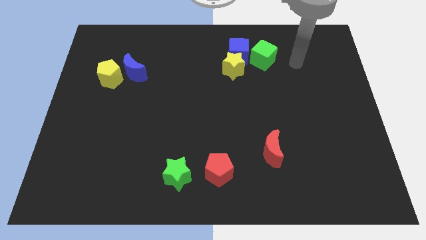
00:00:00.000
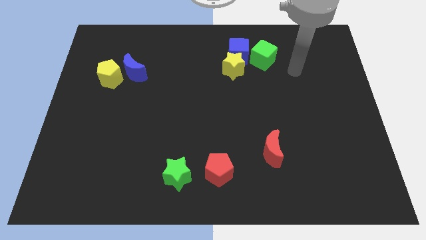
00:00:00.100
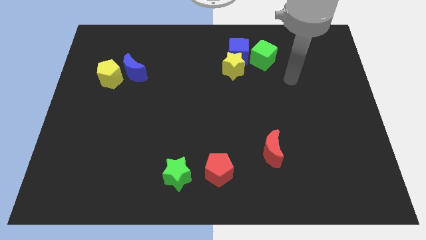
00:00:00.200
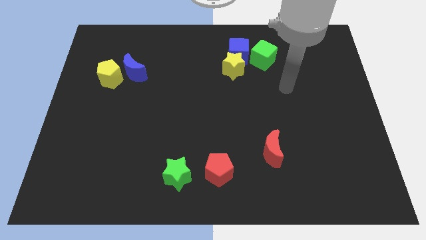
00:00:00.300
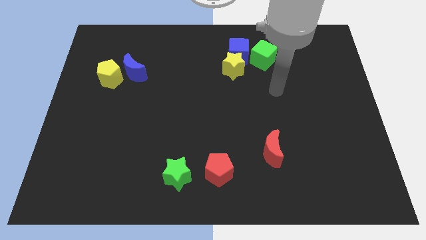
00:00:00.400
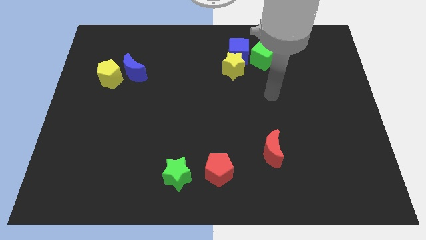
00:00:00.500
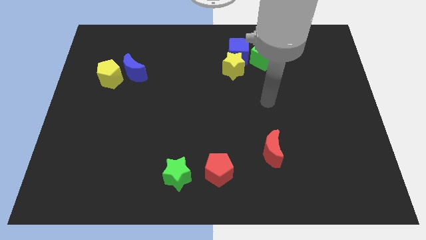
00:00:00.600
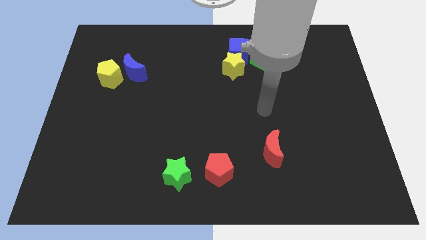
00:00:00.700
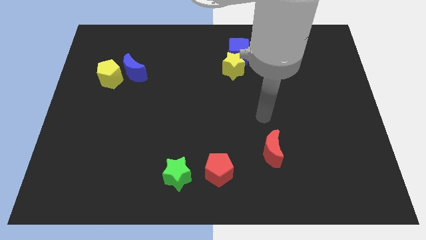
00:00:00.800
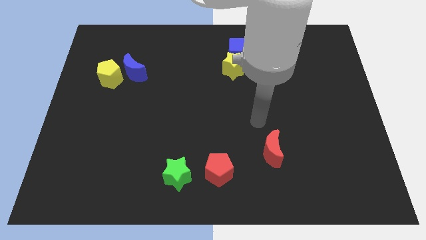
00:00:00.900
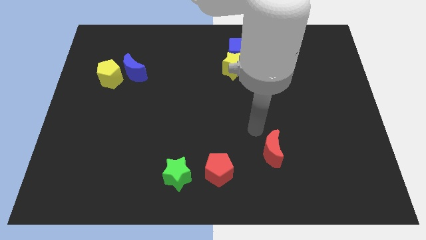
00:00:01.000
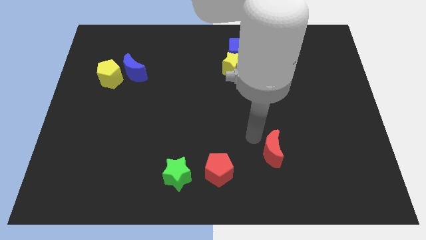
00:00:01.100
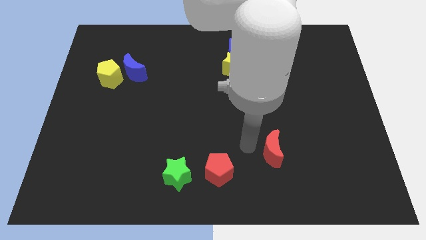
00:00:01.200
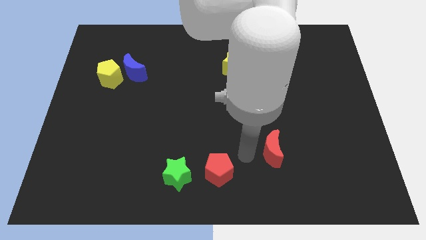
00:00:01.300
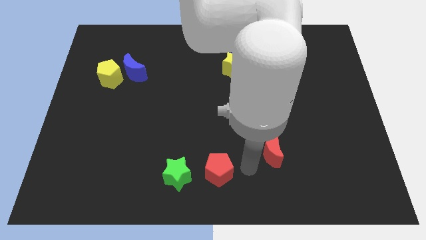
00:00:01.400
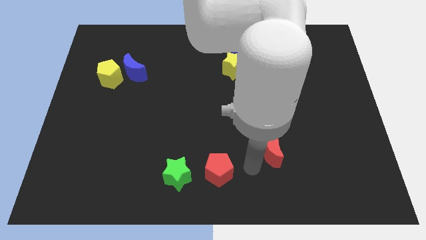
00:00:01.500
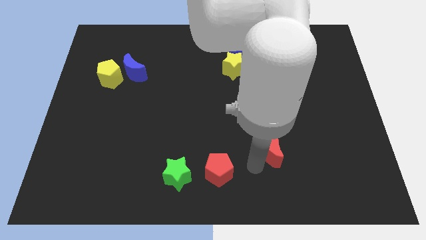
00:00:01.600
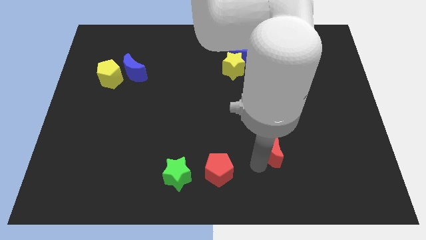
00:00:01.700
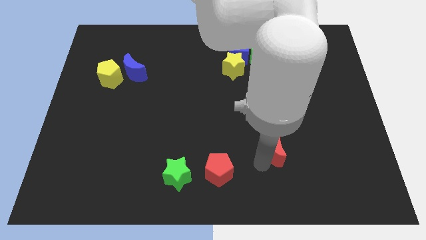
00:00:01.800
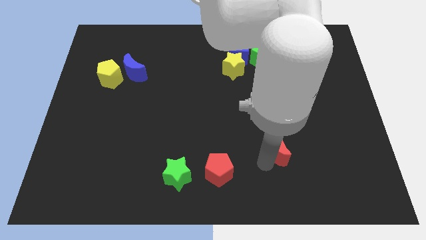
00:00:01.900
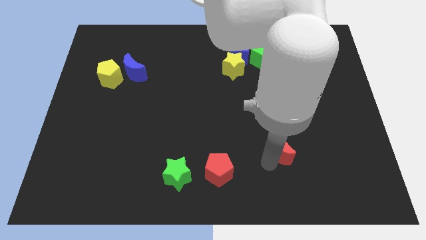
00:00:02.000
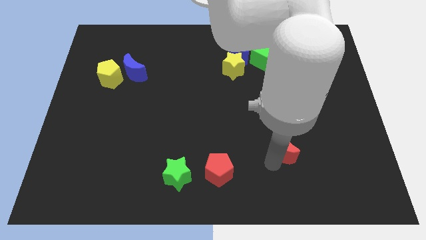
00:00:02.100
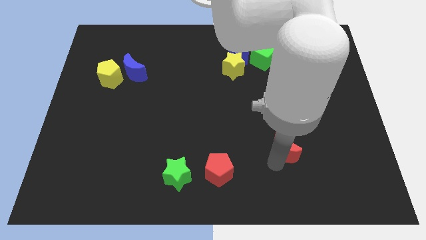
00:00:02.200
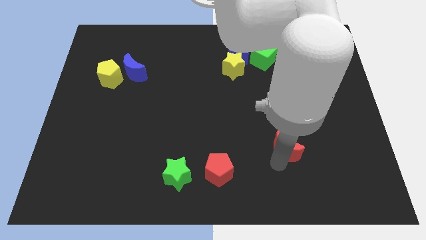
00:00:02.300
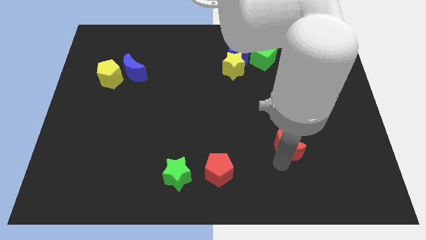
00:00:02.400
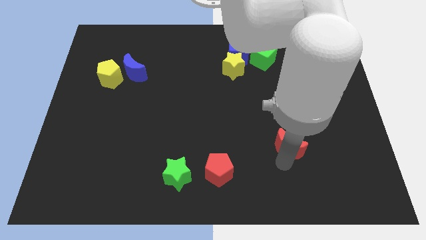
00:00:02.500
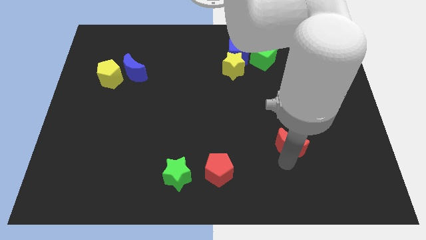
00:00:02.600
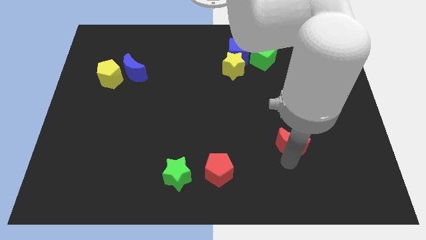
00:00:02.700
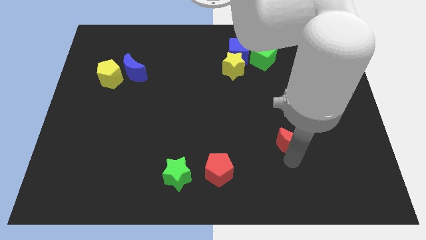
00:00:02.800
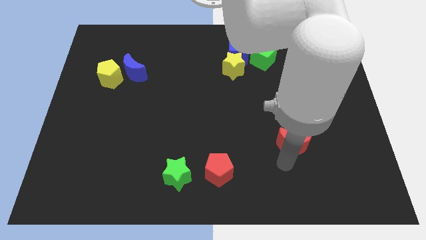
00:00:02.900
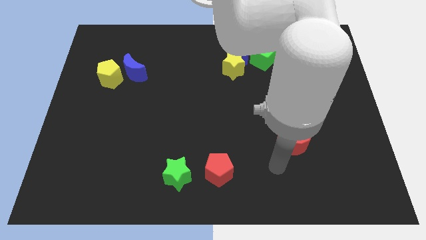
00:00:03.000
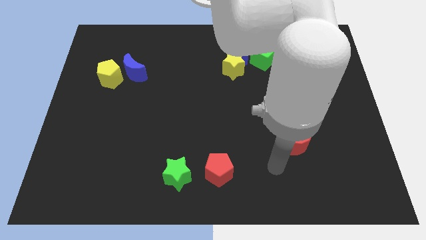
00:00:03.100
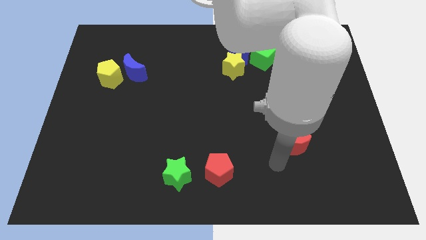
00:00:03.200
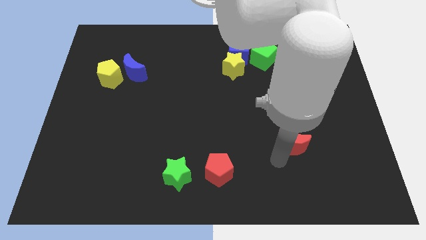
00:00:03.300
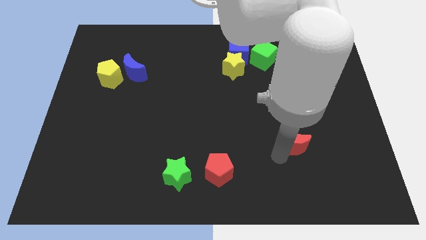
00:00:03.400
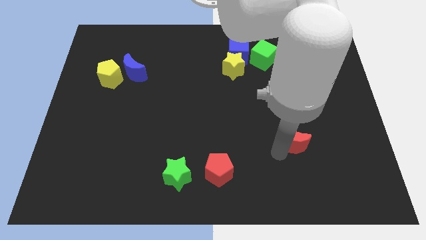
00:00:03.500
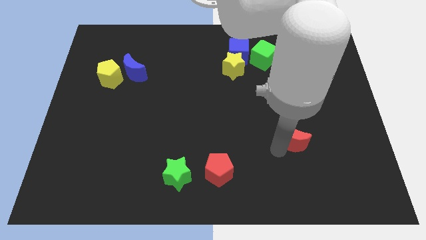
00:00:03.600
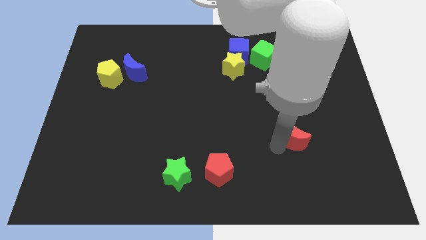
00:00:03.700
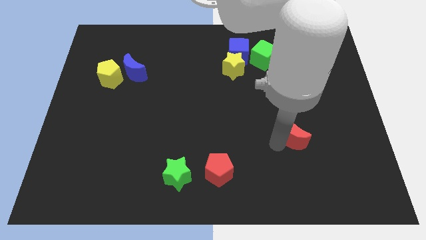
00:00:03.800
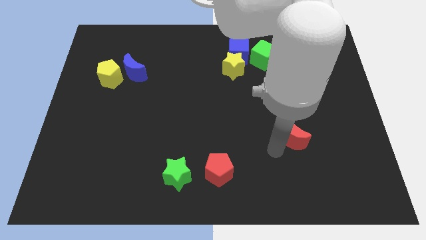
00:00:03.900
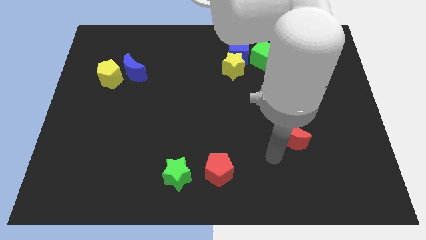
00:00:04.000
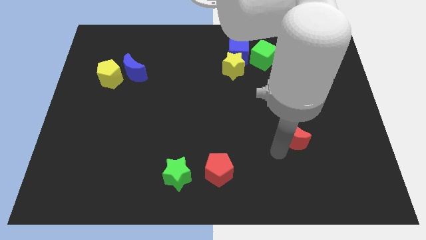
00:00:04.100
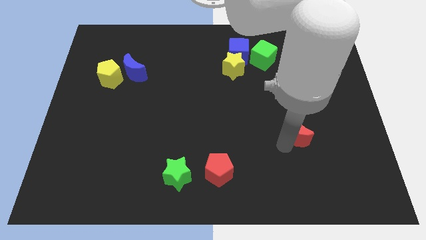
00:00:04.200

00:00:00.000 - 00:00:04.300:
slide the red moon up and then to the right somewhat

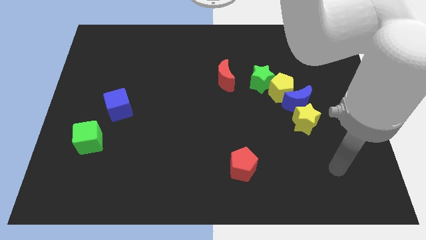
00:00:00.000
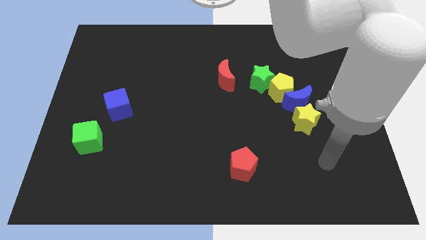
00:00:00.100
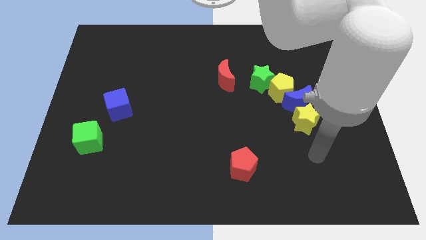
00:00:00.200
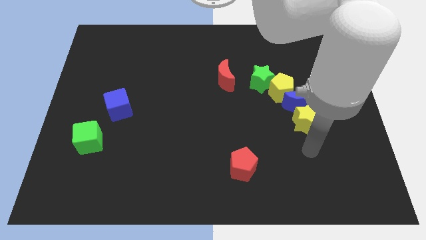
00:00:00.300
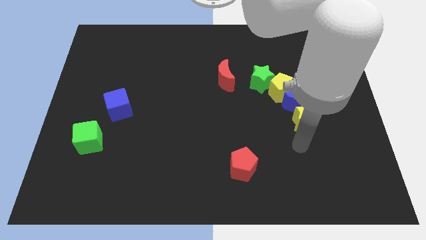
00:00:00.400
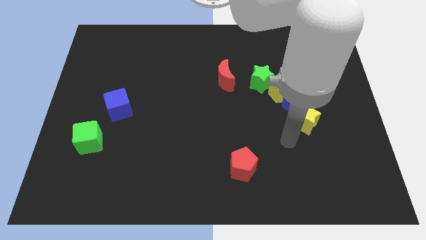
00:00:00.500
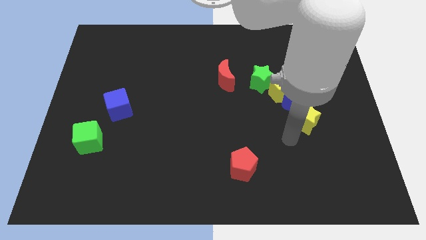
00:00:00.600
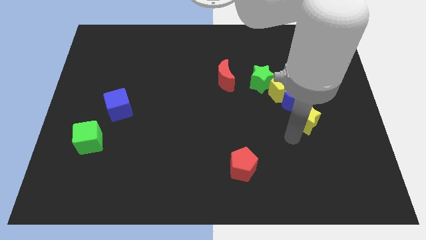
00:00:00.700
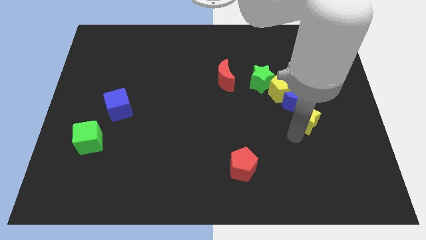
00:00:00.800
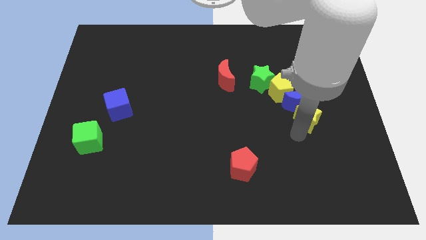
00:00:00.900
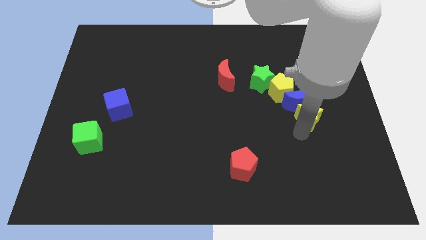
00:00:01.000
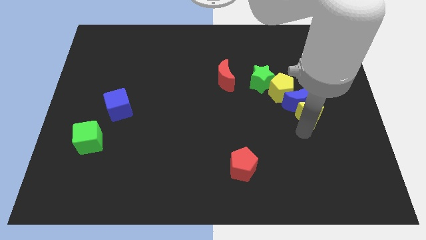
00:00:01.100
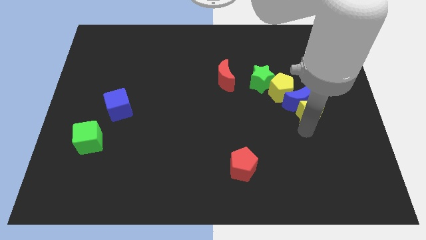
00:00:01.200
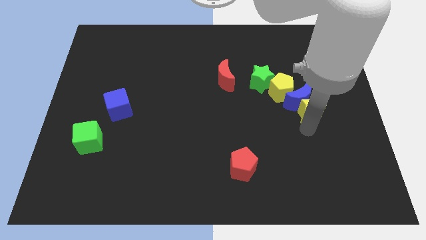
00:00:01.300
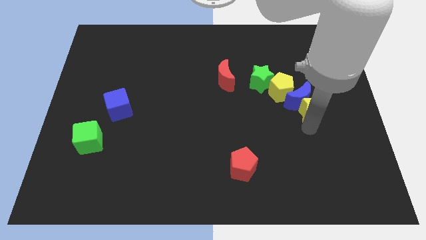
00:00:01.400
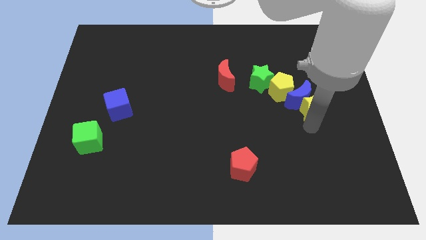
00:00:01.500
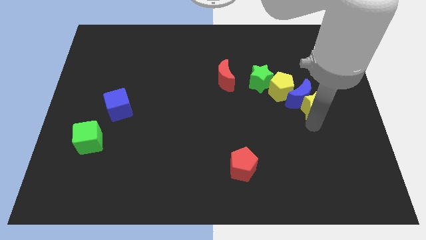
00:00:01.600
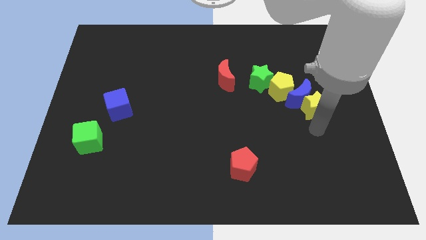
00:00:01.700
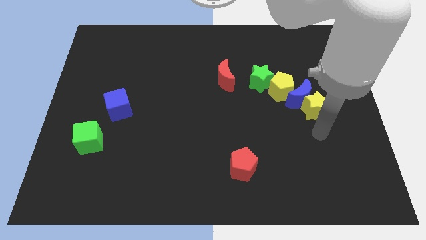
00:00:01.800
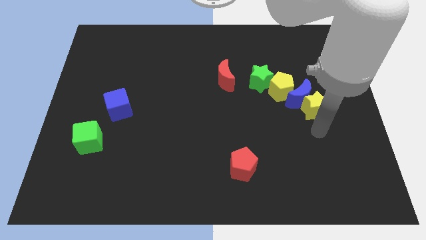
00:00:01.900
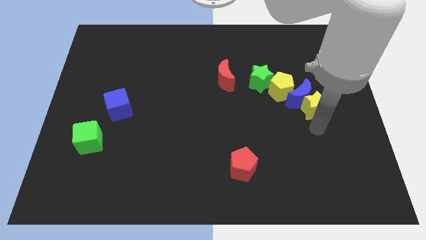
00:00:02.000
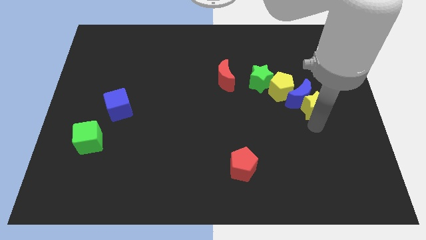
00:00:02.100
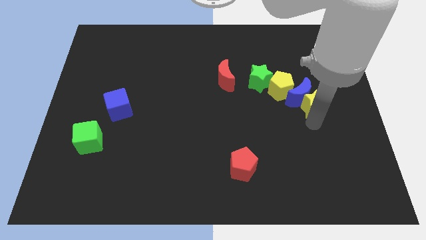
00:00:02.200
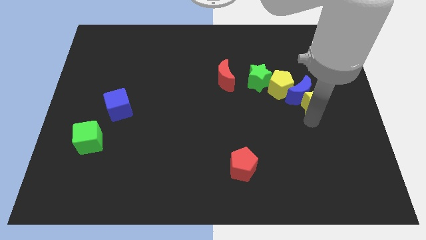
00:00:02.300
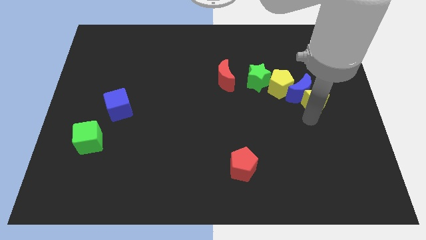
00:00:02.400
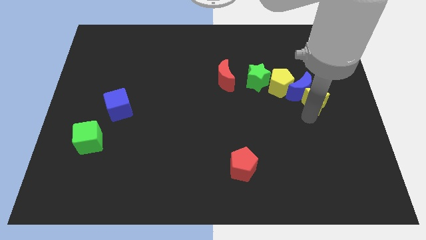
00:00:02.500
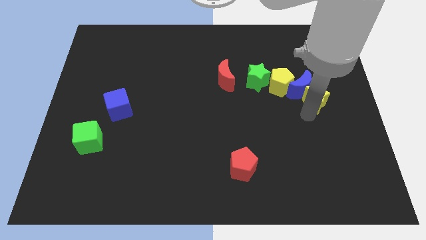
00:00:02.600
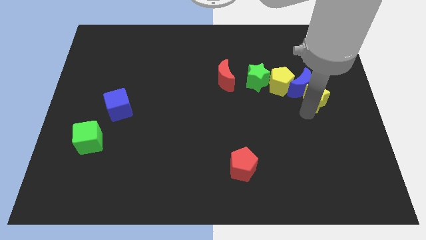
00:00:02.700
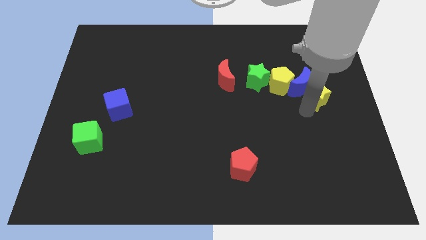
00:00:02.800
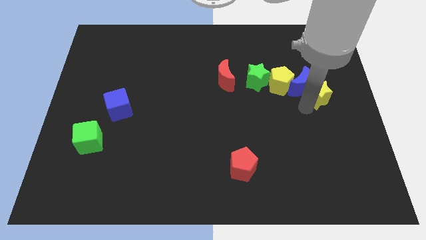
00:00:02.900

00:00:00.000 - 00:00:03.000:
push the yellow star a little up

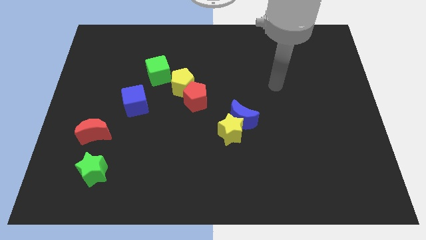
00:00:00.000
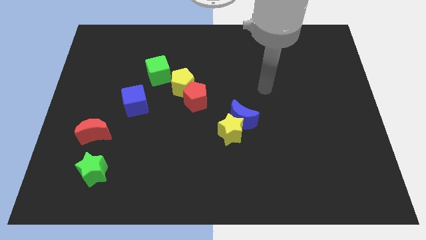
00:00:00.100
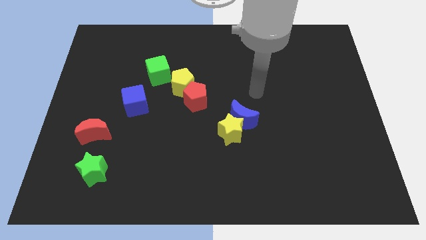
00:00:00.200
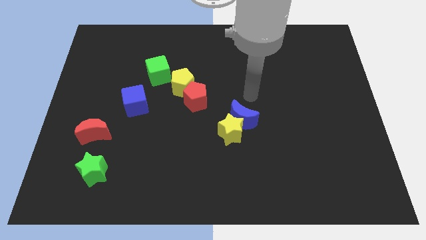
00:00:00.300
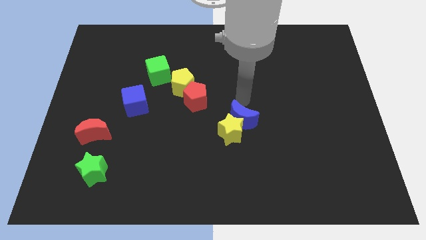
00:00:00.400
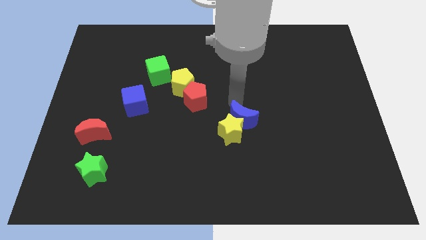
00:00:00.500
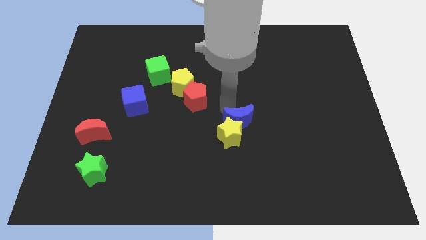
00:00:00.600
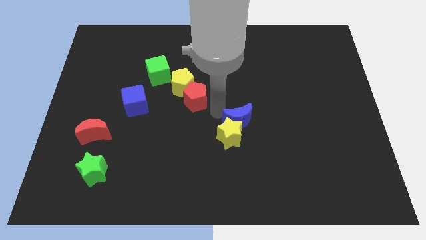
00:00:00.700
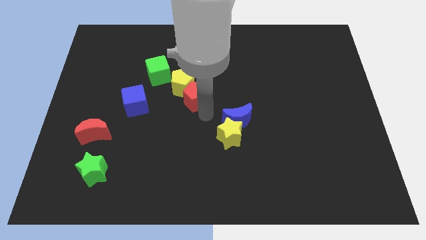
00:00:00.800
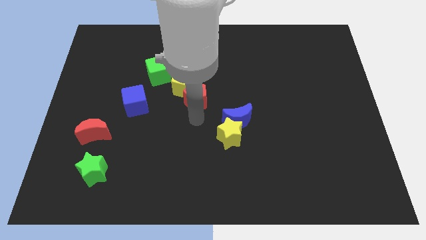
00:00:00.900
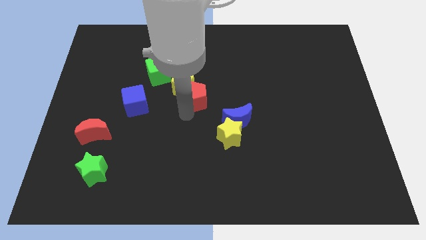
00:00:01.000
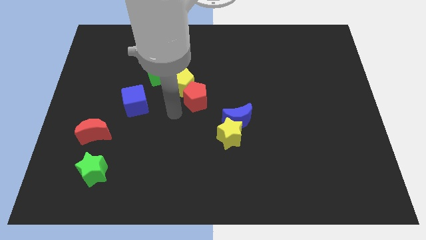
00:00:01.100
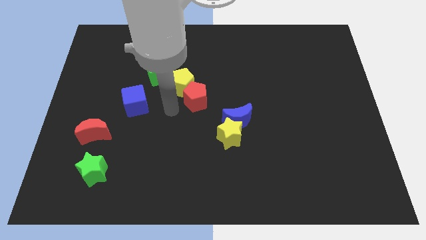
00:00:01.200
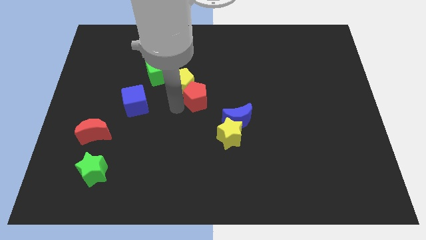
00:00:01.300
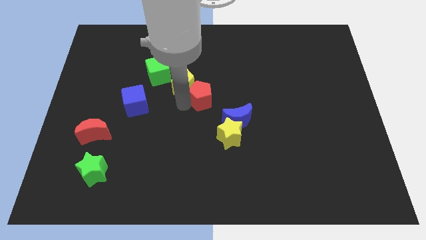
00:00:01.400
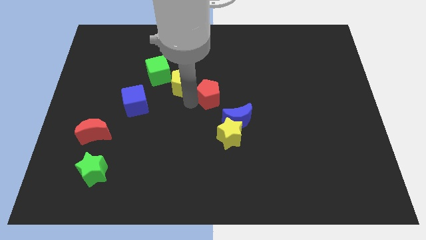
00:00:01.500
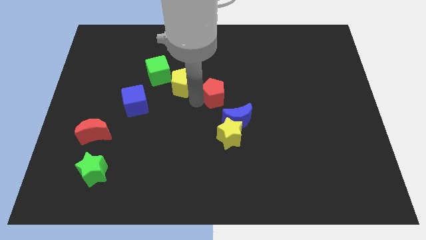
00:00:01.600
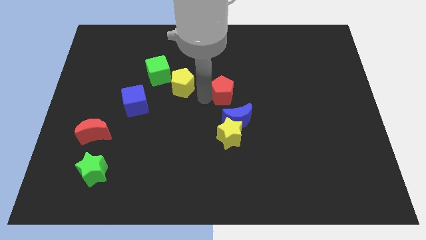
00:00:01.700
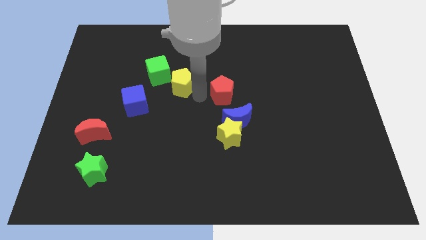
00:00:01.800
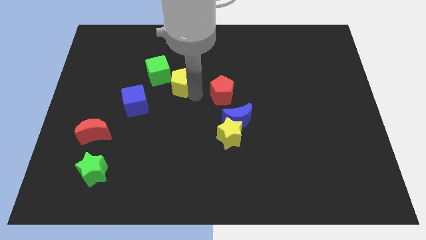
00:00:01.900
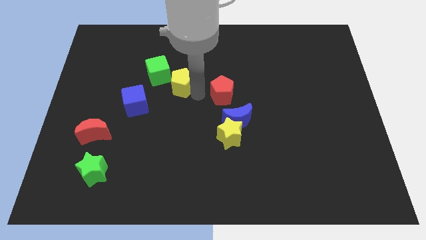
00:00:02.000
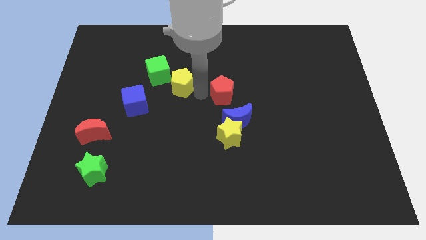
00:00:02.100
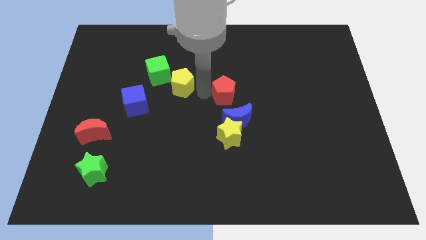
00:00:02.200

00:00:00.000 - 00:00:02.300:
push the red pentagon right slightly
